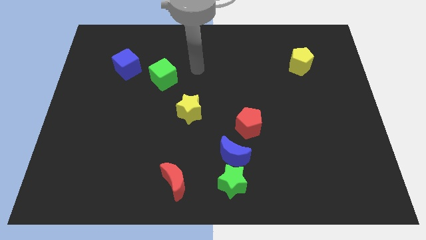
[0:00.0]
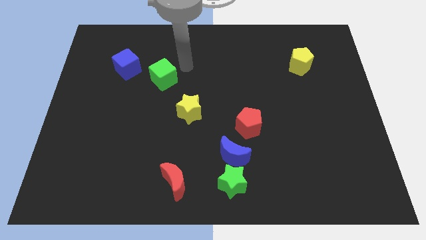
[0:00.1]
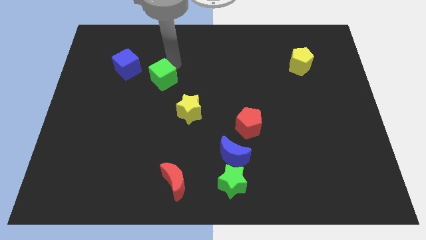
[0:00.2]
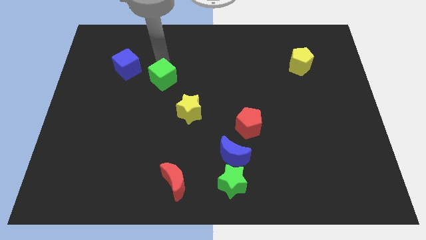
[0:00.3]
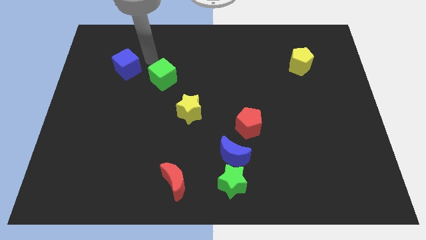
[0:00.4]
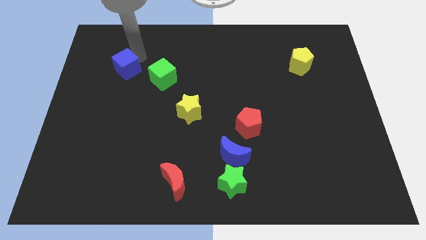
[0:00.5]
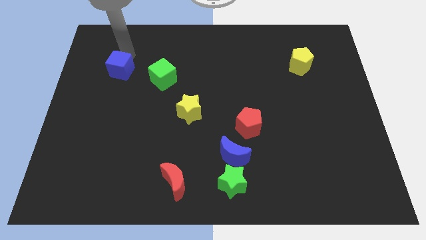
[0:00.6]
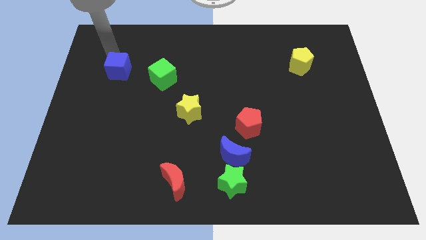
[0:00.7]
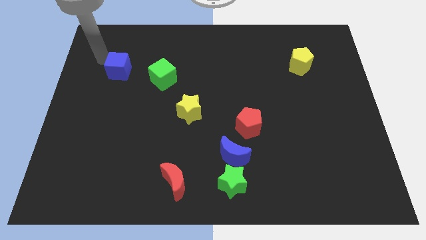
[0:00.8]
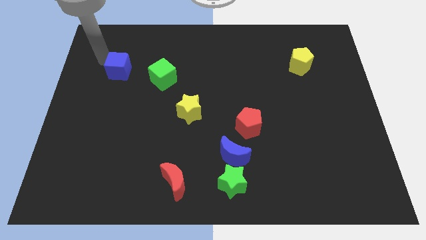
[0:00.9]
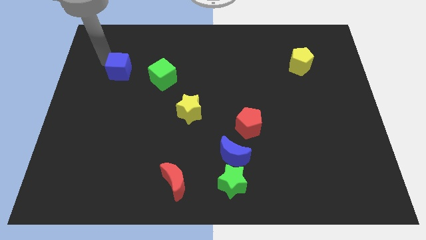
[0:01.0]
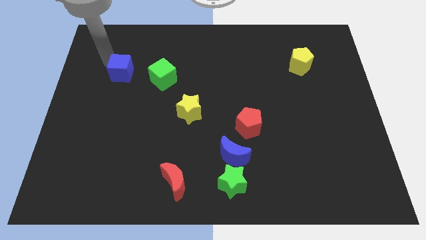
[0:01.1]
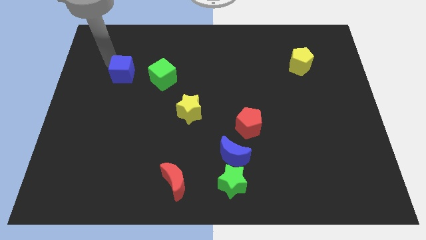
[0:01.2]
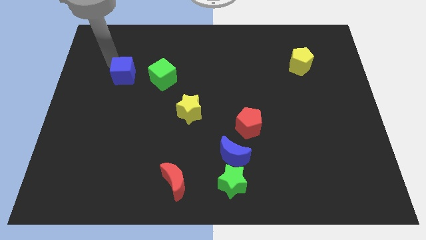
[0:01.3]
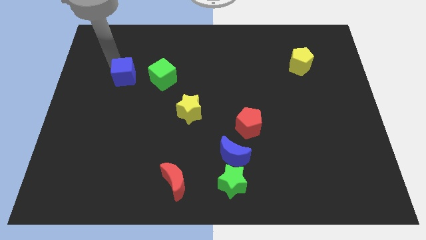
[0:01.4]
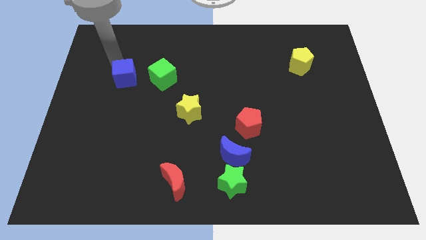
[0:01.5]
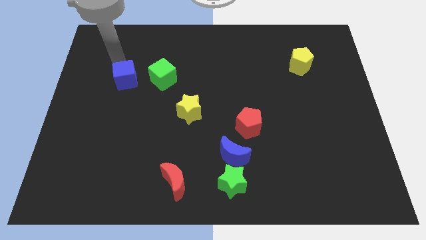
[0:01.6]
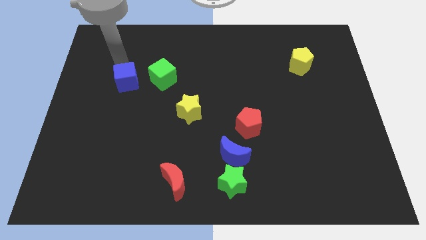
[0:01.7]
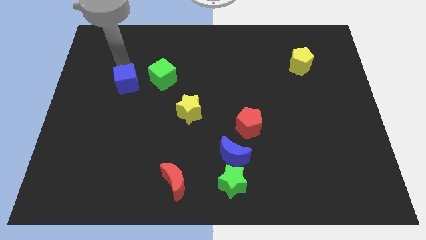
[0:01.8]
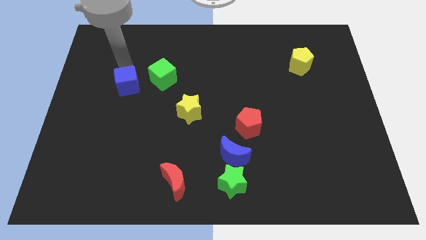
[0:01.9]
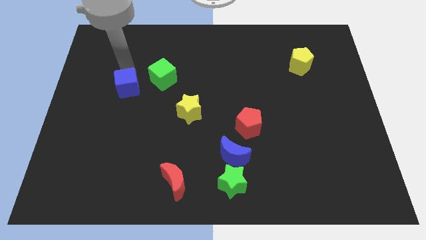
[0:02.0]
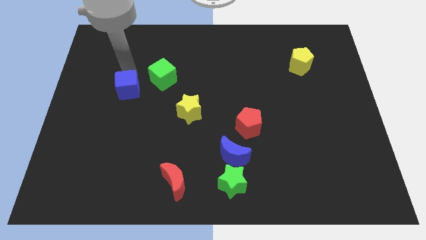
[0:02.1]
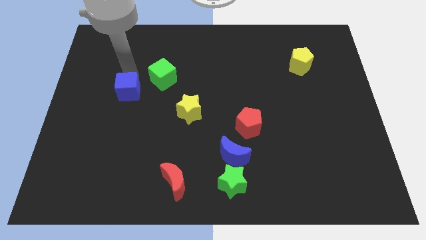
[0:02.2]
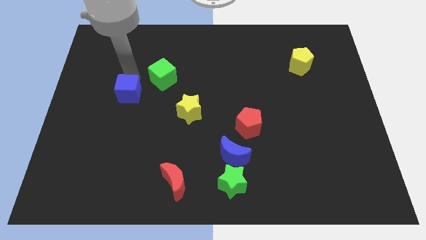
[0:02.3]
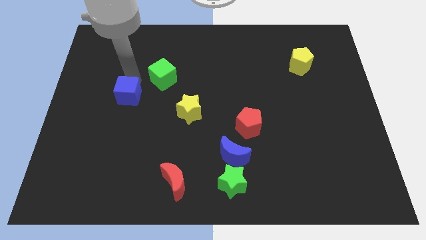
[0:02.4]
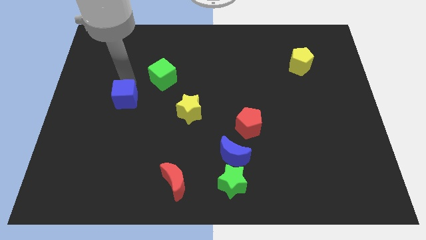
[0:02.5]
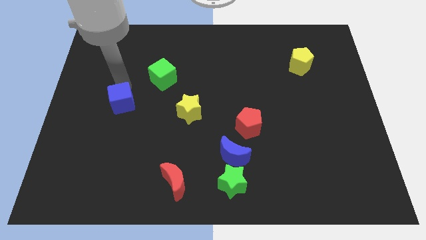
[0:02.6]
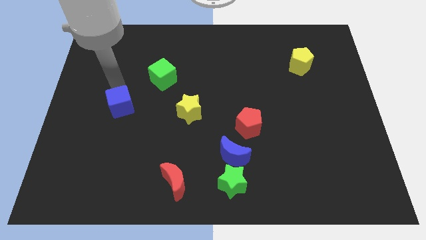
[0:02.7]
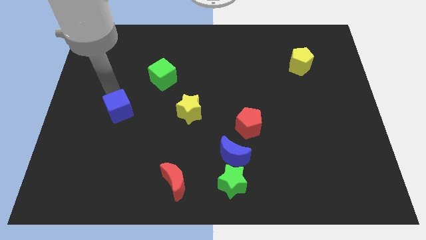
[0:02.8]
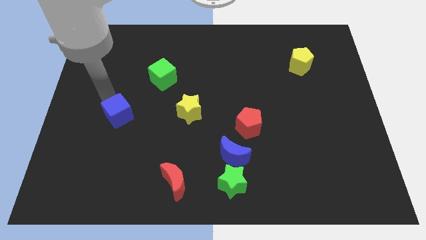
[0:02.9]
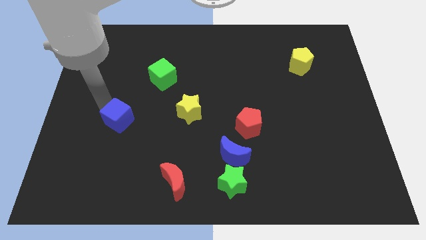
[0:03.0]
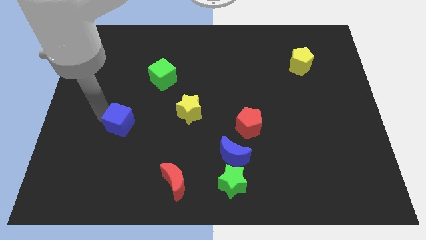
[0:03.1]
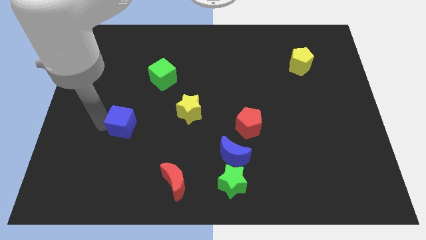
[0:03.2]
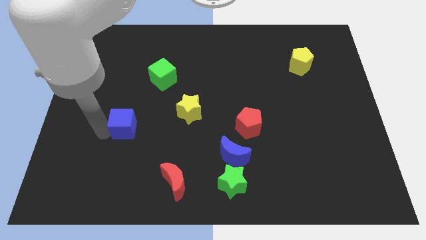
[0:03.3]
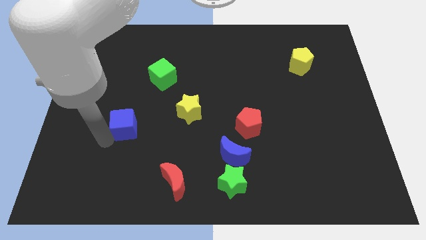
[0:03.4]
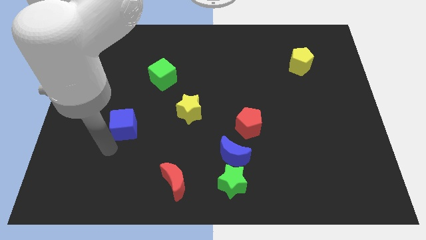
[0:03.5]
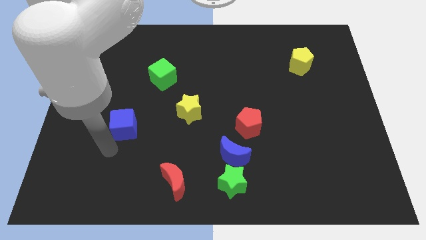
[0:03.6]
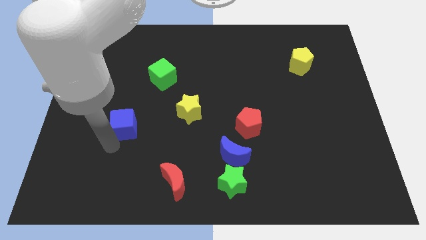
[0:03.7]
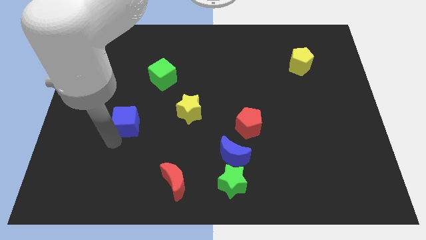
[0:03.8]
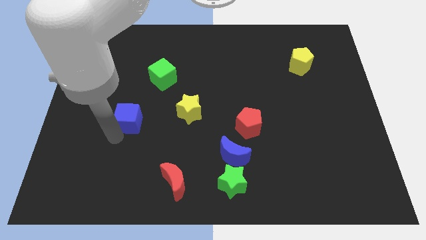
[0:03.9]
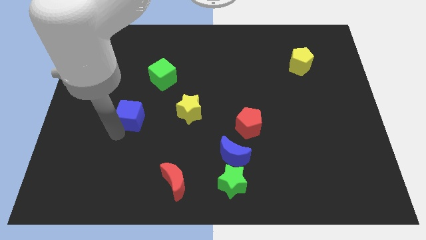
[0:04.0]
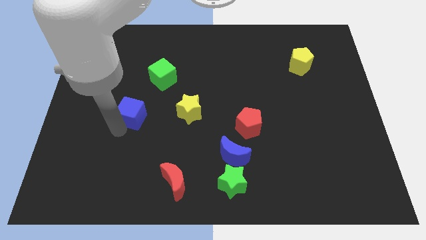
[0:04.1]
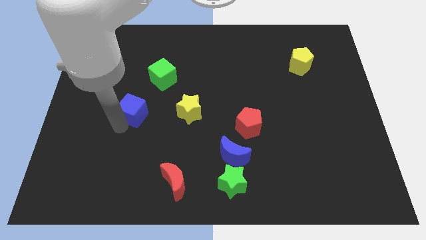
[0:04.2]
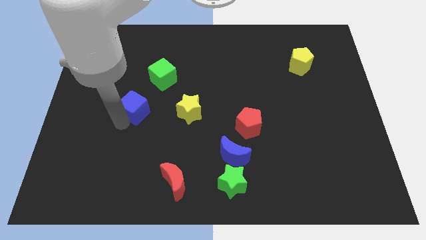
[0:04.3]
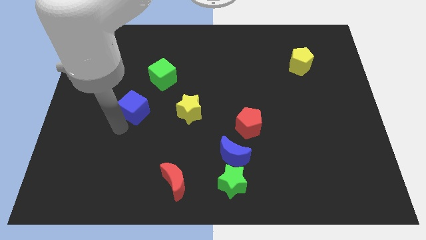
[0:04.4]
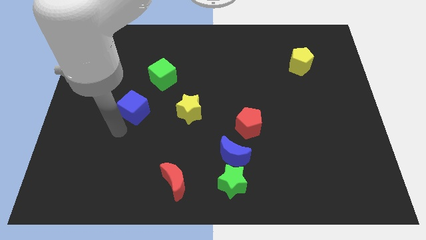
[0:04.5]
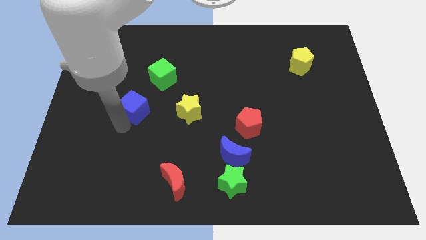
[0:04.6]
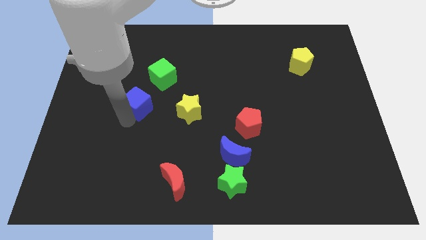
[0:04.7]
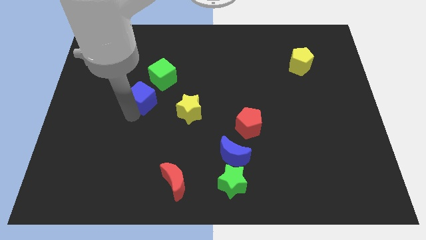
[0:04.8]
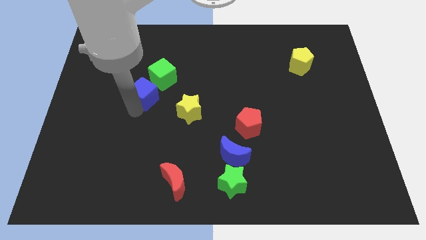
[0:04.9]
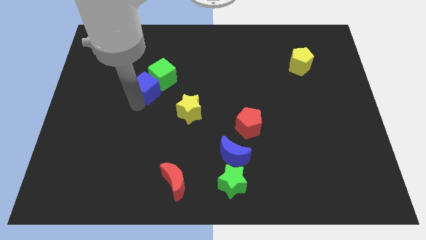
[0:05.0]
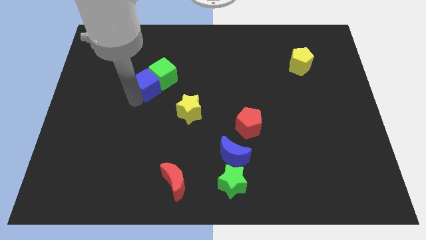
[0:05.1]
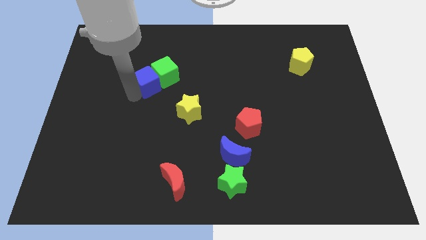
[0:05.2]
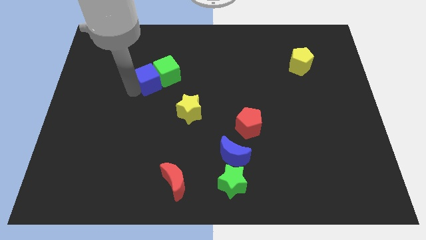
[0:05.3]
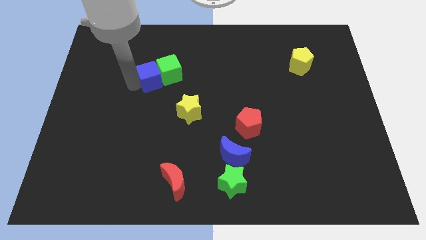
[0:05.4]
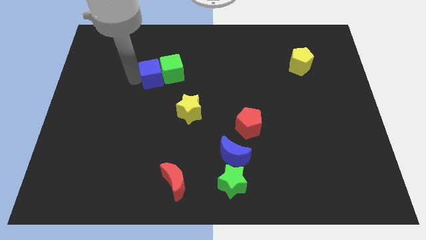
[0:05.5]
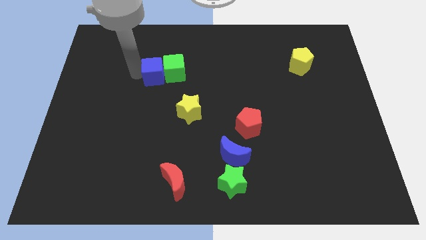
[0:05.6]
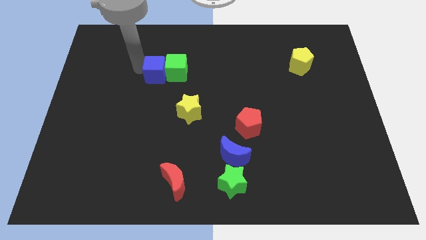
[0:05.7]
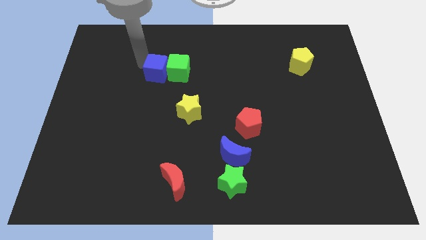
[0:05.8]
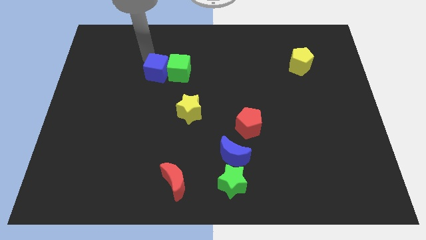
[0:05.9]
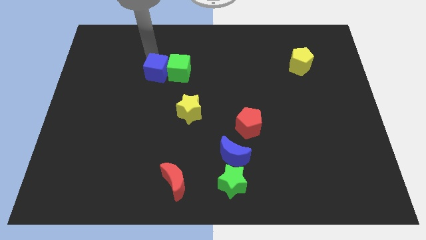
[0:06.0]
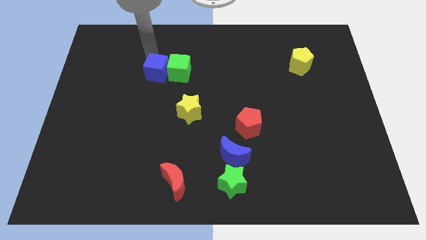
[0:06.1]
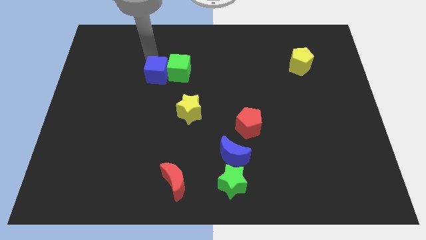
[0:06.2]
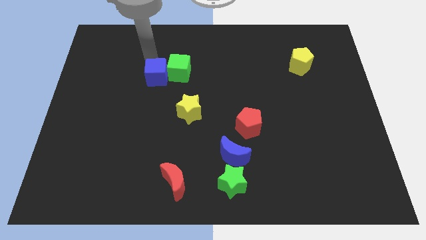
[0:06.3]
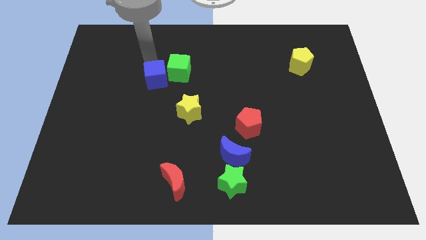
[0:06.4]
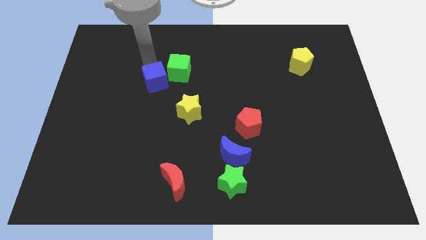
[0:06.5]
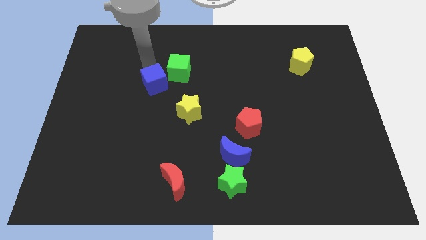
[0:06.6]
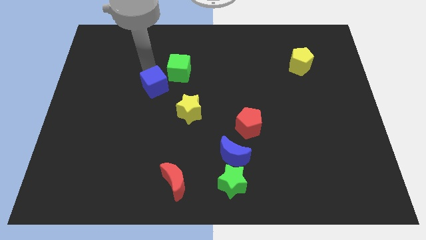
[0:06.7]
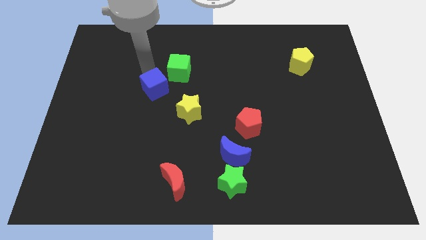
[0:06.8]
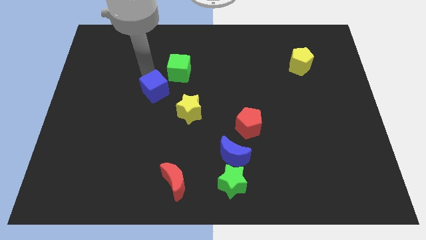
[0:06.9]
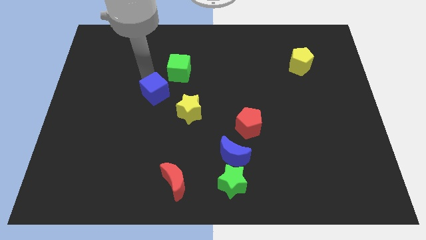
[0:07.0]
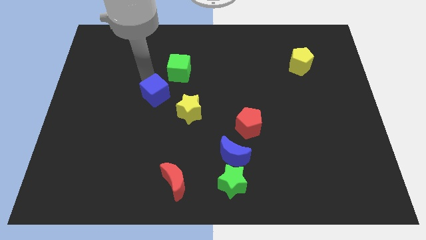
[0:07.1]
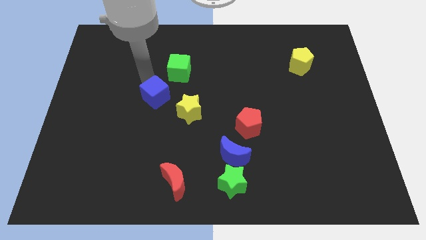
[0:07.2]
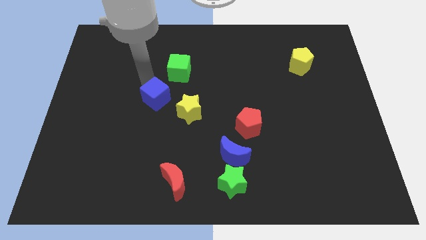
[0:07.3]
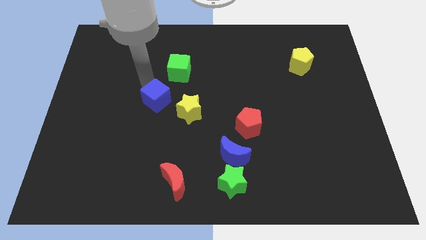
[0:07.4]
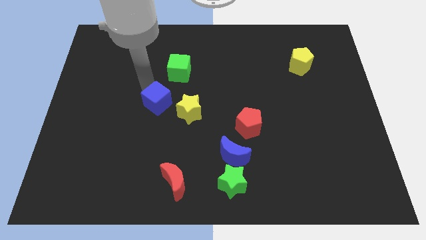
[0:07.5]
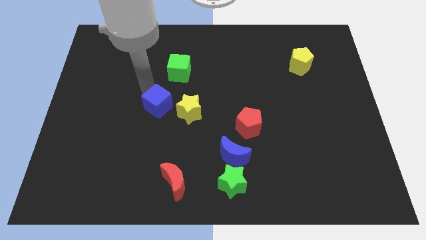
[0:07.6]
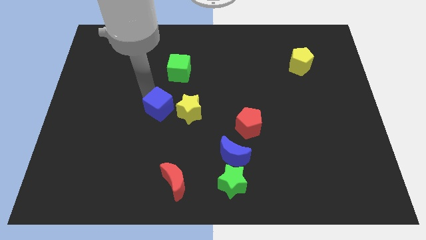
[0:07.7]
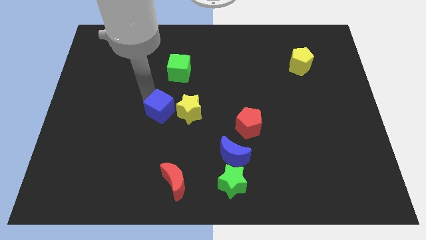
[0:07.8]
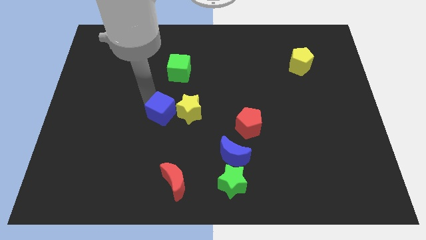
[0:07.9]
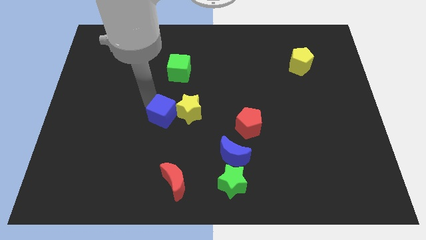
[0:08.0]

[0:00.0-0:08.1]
push the blue cube next to the yellow star
